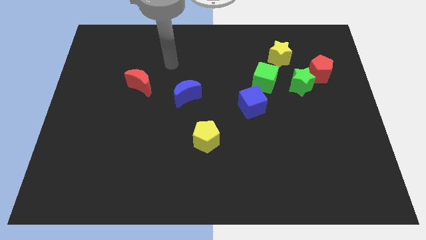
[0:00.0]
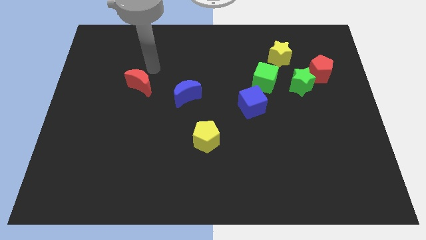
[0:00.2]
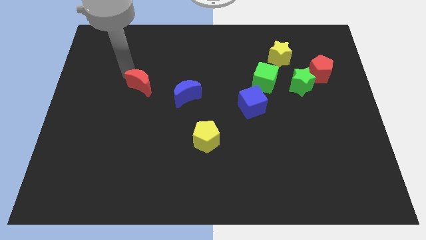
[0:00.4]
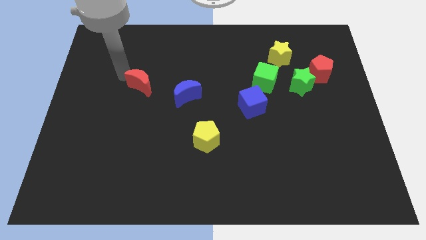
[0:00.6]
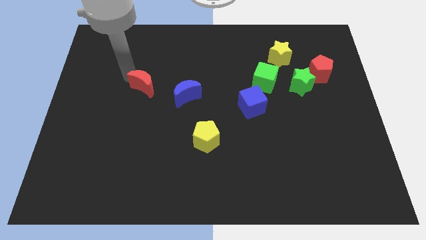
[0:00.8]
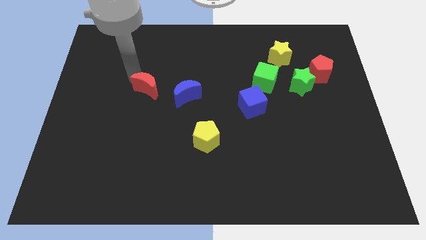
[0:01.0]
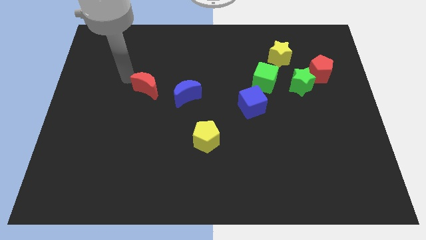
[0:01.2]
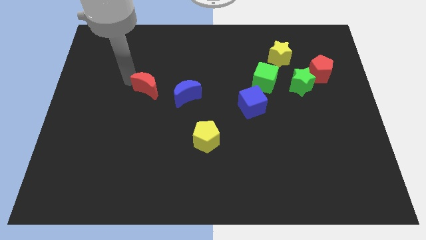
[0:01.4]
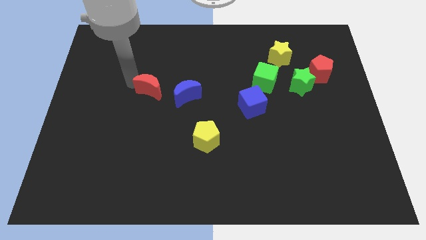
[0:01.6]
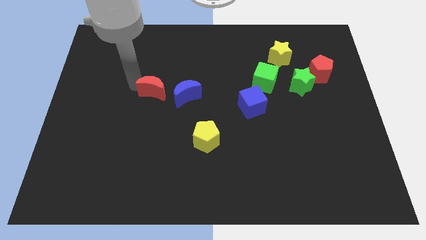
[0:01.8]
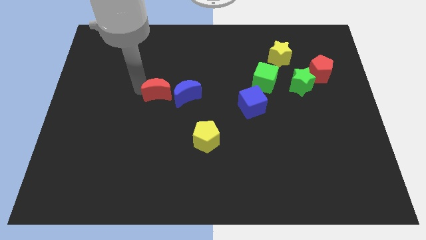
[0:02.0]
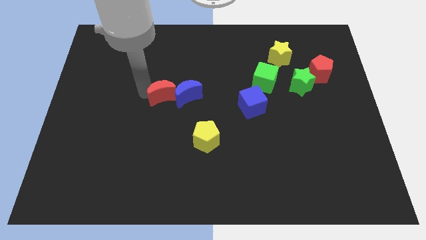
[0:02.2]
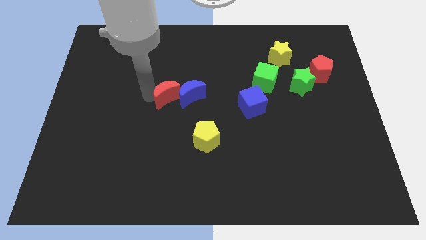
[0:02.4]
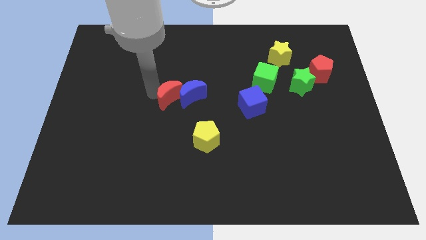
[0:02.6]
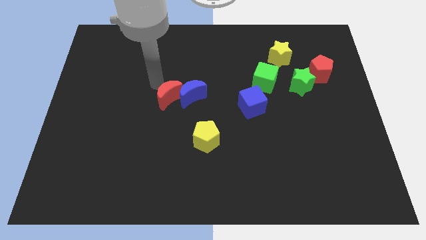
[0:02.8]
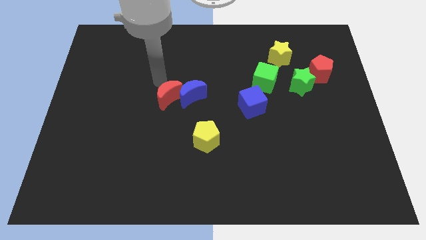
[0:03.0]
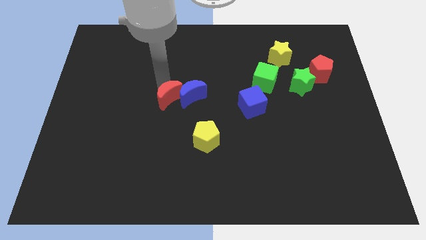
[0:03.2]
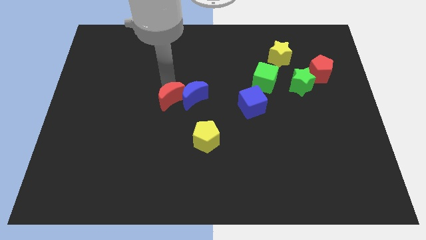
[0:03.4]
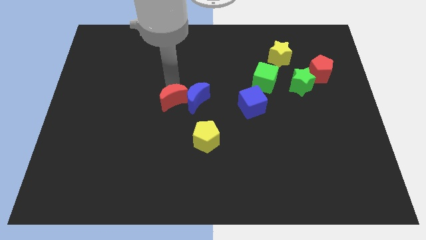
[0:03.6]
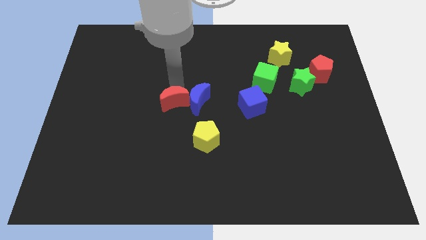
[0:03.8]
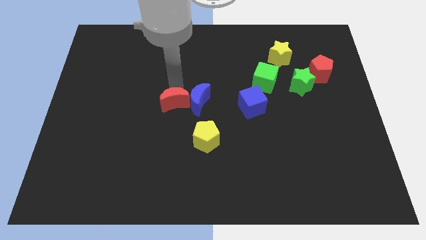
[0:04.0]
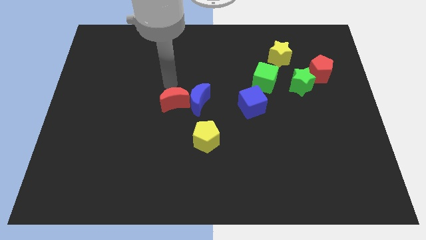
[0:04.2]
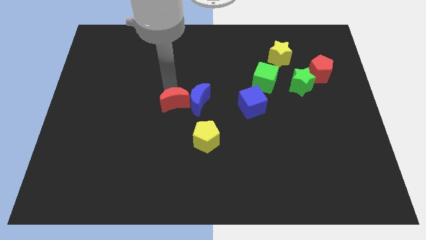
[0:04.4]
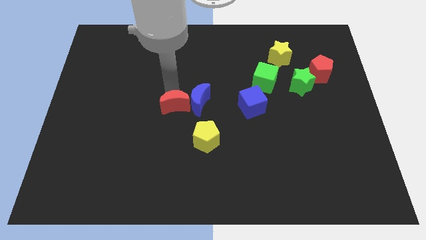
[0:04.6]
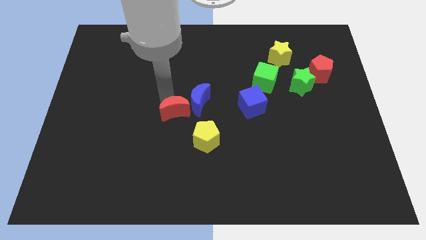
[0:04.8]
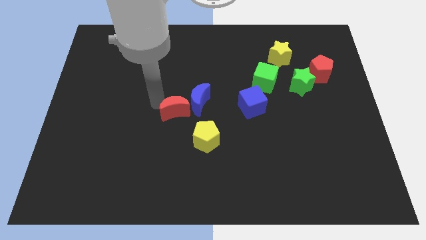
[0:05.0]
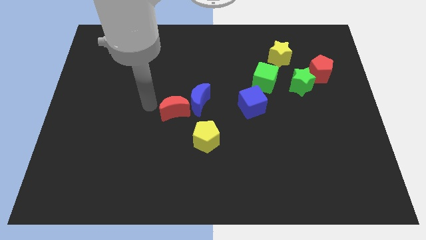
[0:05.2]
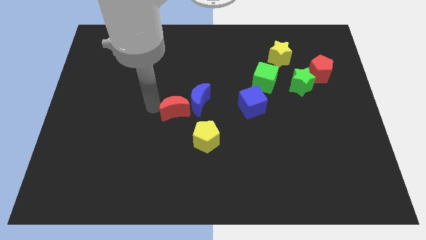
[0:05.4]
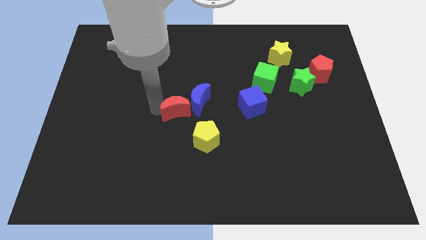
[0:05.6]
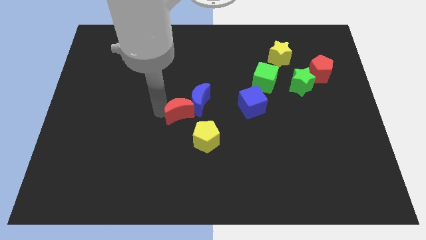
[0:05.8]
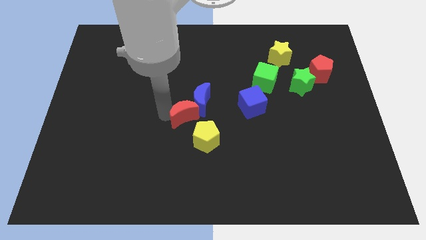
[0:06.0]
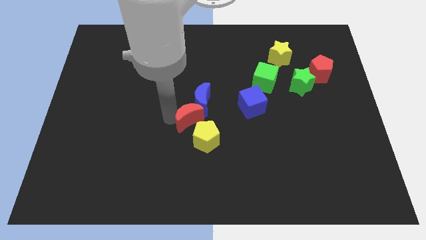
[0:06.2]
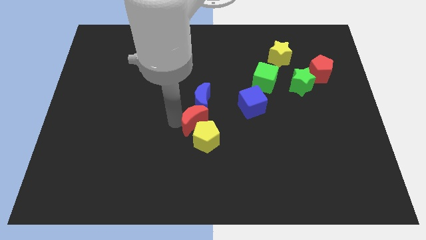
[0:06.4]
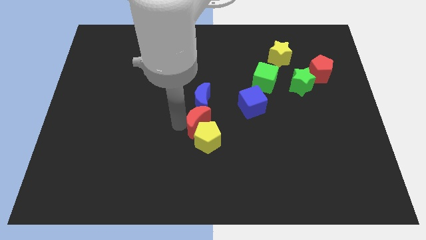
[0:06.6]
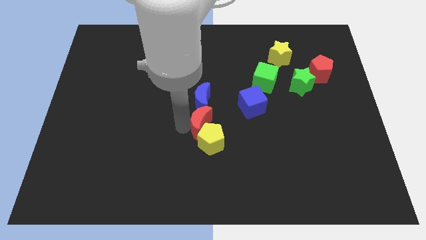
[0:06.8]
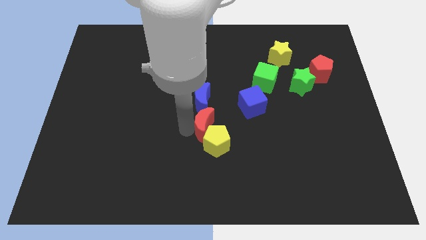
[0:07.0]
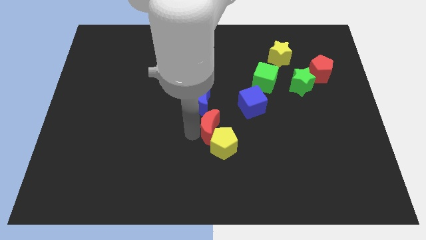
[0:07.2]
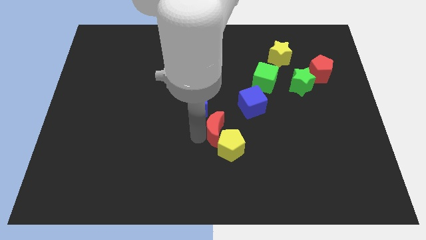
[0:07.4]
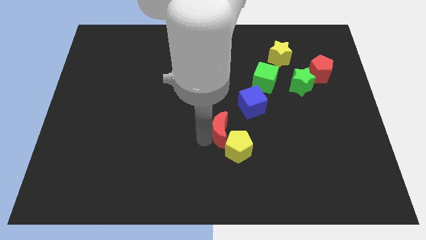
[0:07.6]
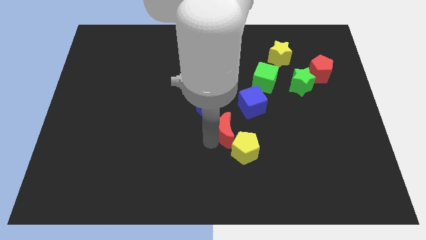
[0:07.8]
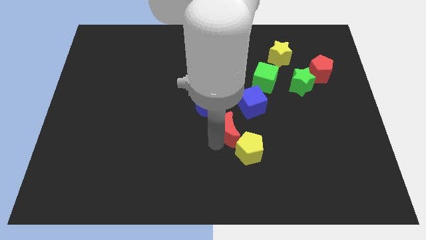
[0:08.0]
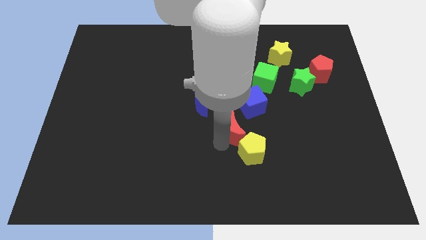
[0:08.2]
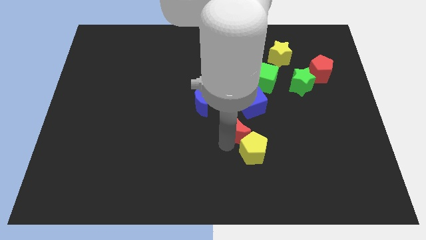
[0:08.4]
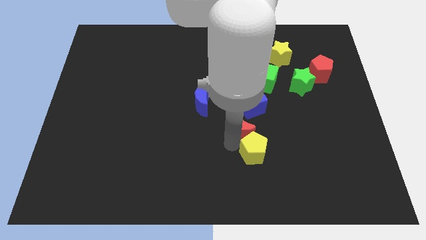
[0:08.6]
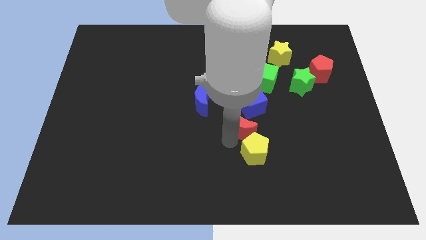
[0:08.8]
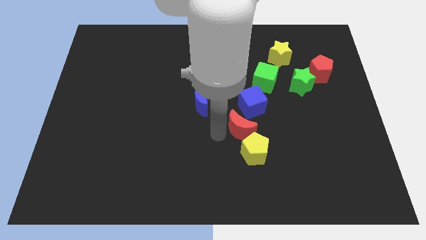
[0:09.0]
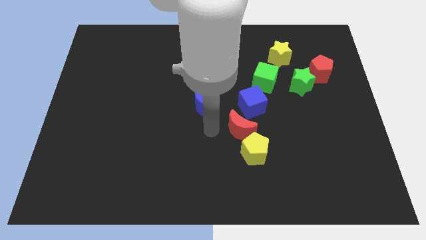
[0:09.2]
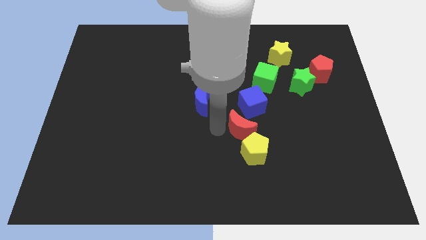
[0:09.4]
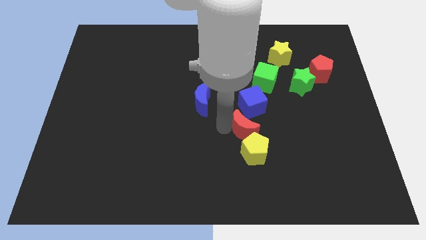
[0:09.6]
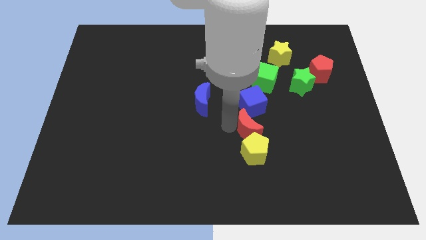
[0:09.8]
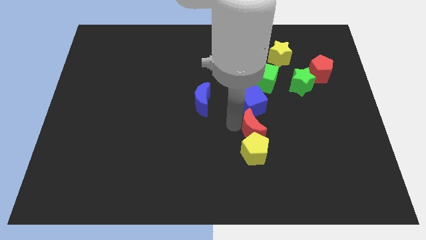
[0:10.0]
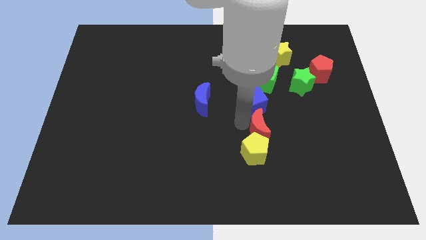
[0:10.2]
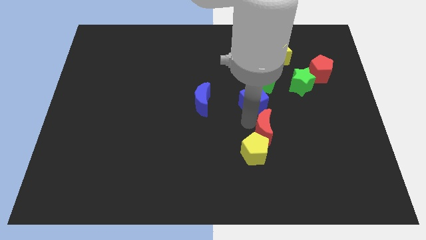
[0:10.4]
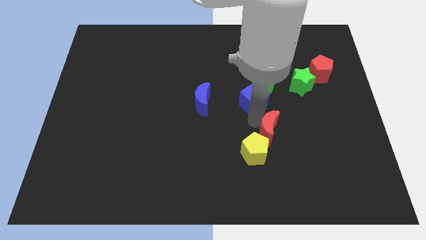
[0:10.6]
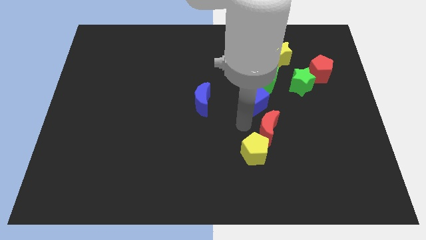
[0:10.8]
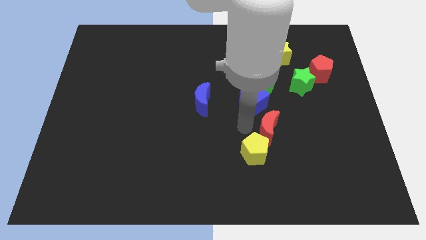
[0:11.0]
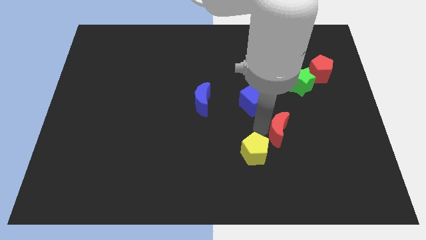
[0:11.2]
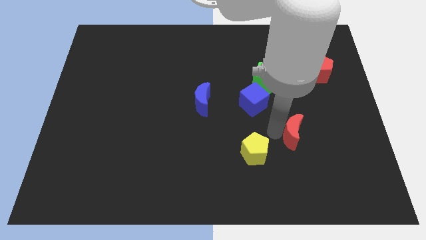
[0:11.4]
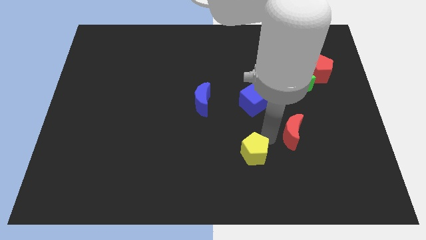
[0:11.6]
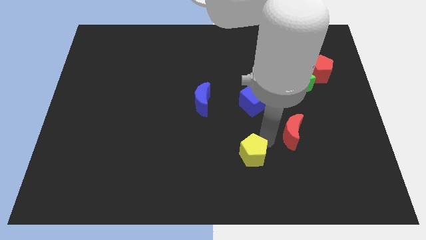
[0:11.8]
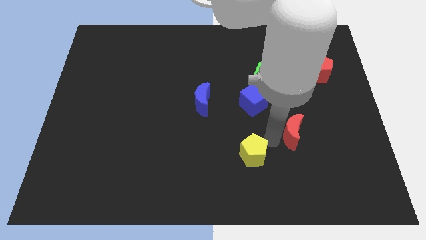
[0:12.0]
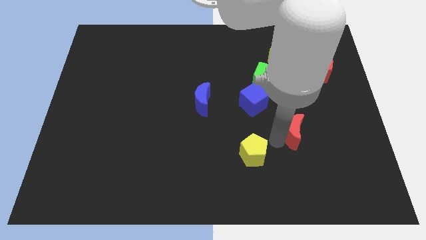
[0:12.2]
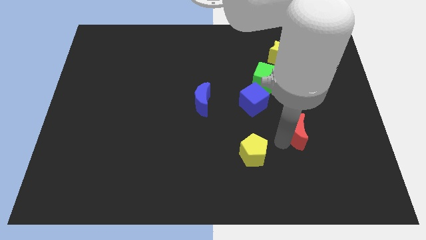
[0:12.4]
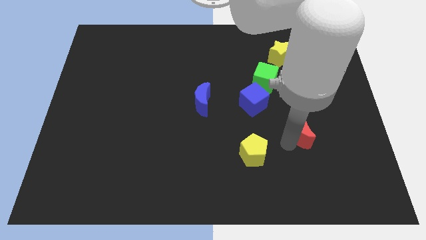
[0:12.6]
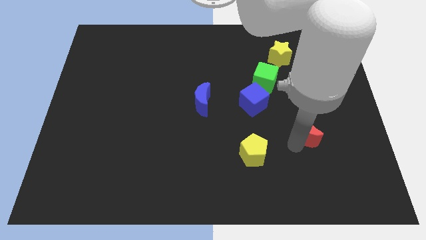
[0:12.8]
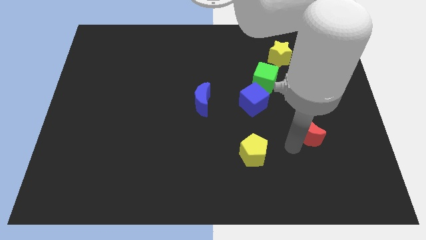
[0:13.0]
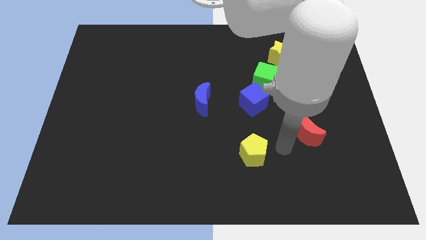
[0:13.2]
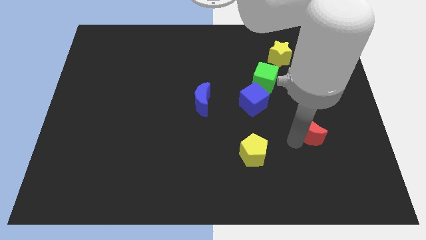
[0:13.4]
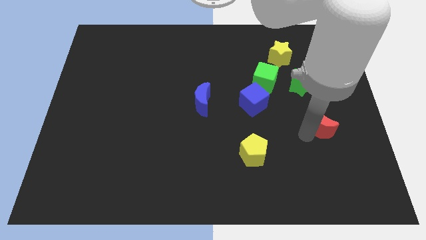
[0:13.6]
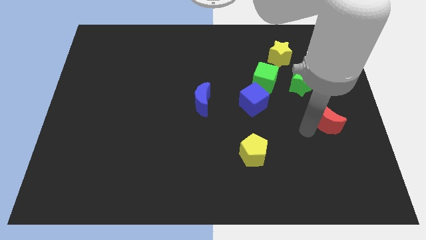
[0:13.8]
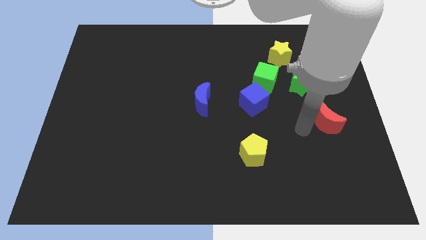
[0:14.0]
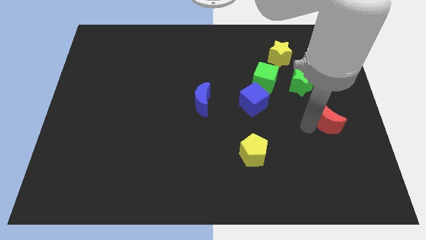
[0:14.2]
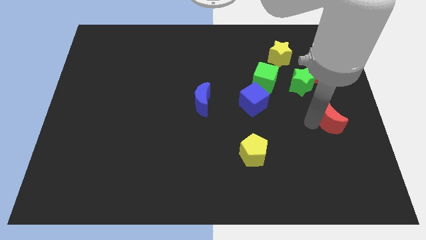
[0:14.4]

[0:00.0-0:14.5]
slide the red moon to the right side of the board
